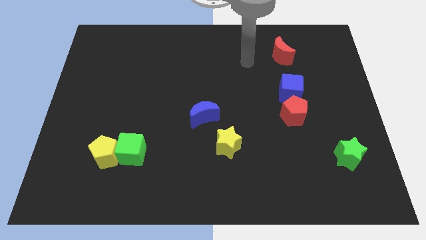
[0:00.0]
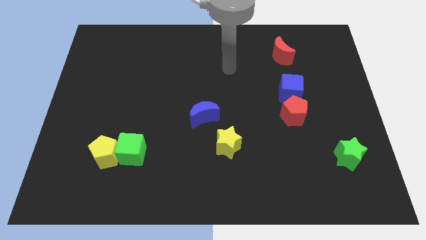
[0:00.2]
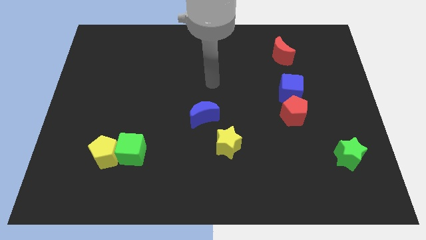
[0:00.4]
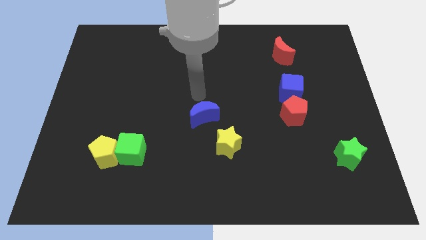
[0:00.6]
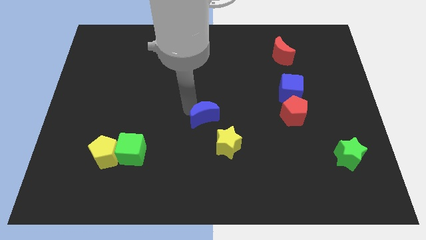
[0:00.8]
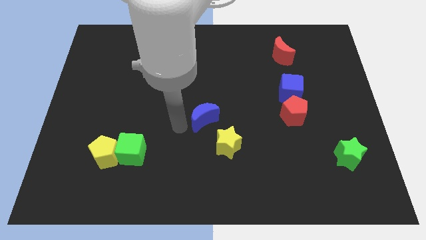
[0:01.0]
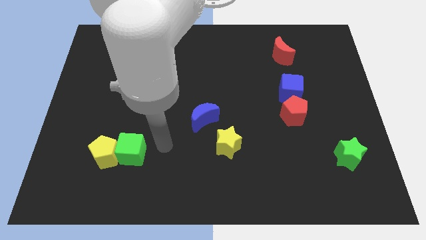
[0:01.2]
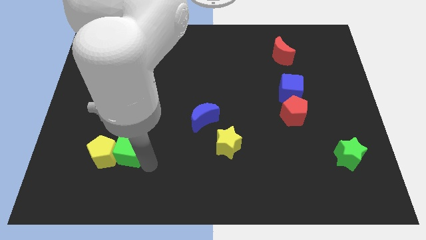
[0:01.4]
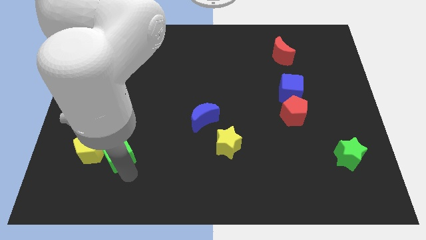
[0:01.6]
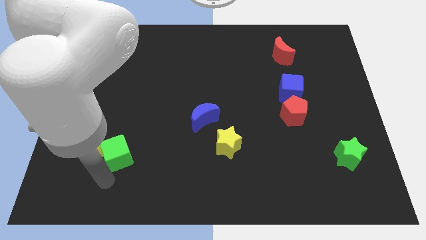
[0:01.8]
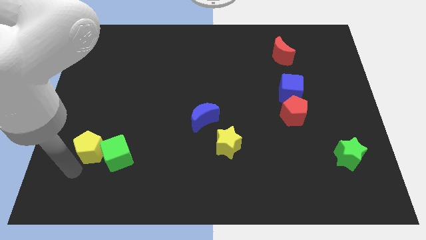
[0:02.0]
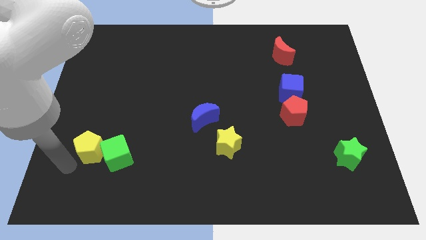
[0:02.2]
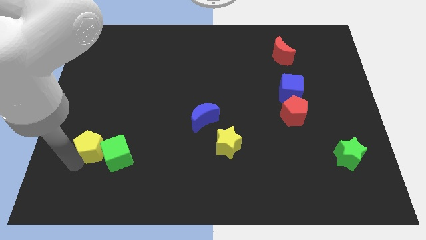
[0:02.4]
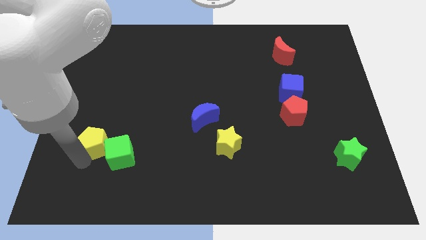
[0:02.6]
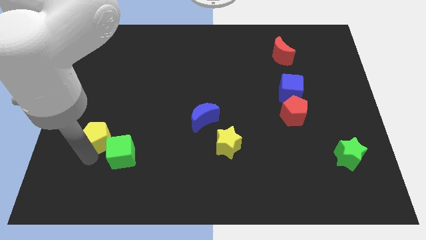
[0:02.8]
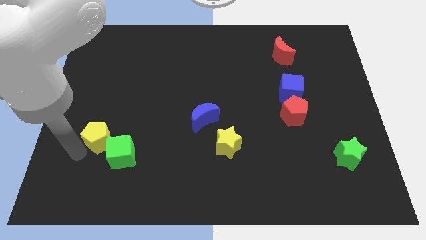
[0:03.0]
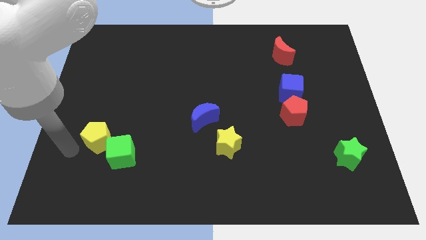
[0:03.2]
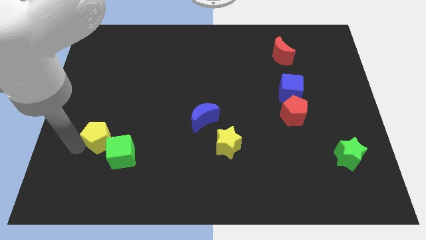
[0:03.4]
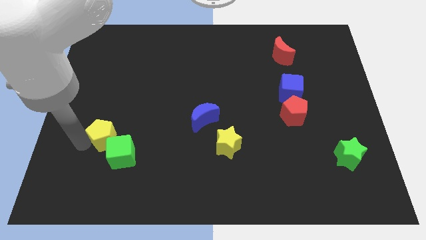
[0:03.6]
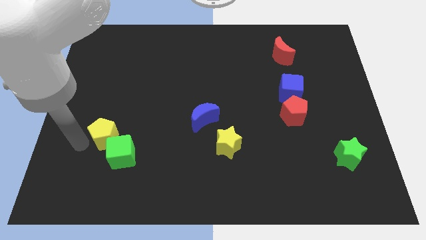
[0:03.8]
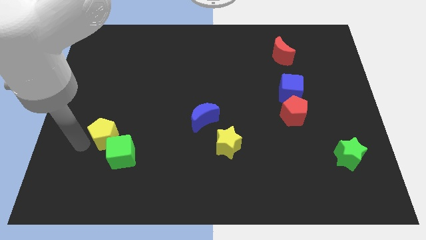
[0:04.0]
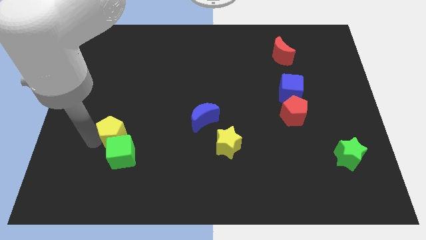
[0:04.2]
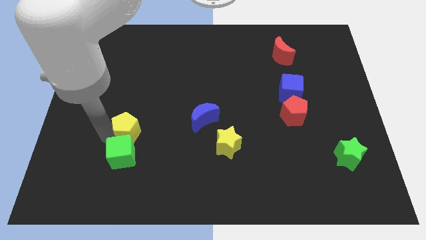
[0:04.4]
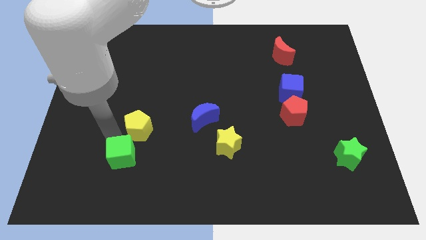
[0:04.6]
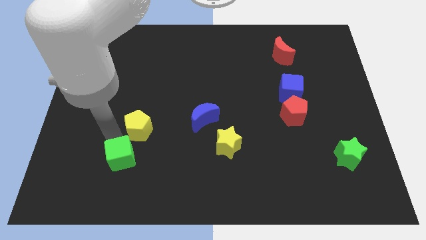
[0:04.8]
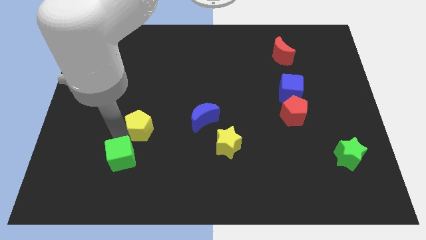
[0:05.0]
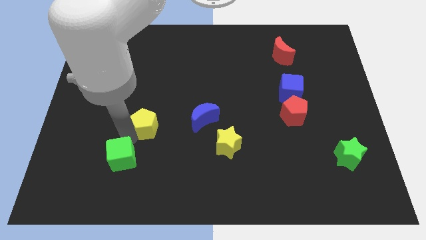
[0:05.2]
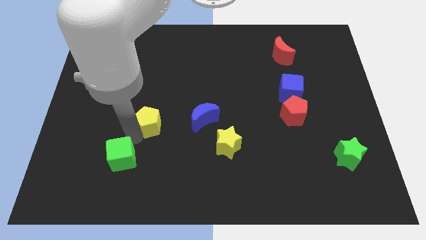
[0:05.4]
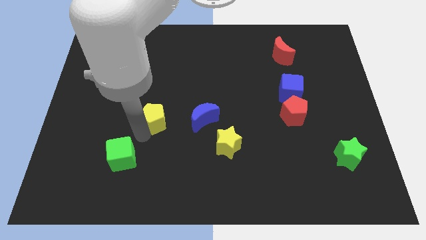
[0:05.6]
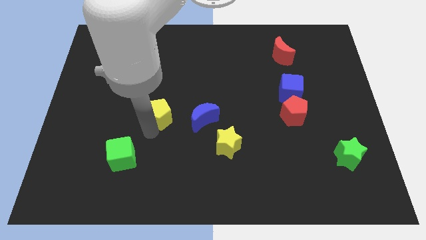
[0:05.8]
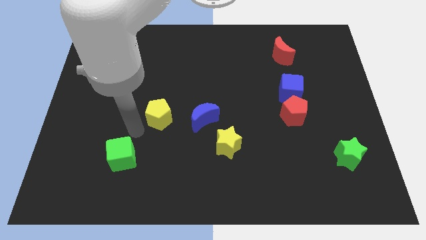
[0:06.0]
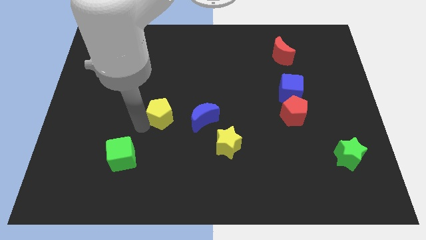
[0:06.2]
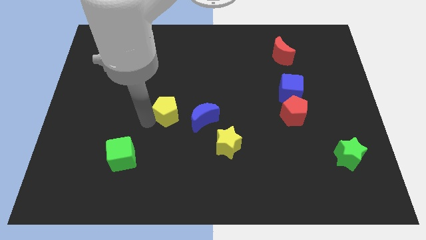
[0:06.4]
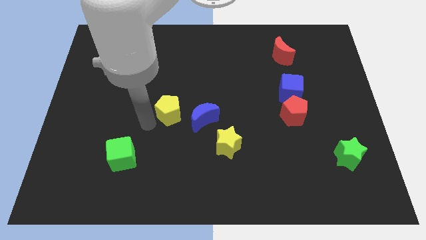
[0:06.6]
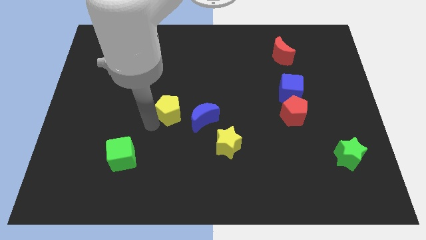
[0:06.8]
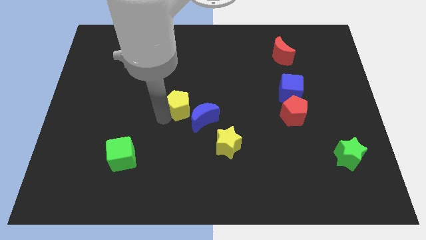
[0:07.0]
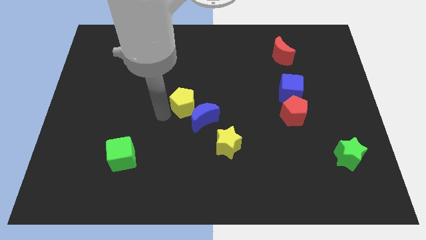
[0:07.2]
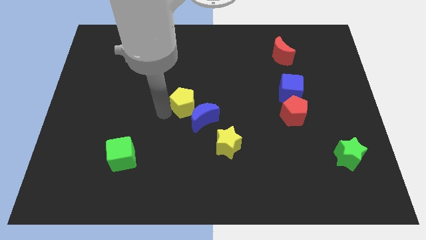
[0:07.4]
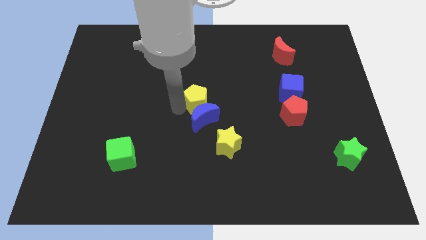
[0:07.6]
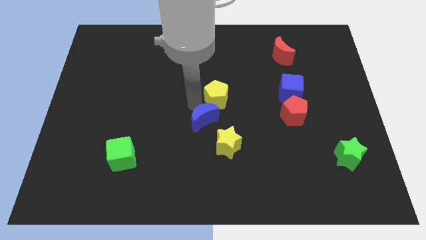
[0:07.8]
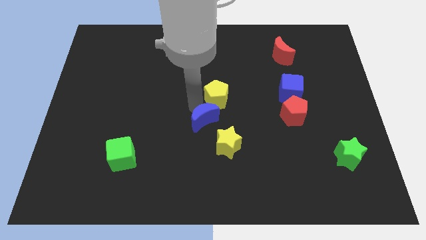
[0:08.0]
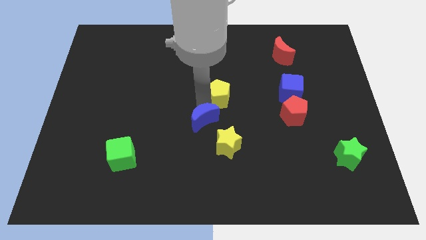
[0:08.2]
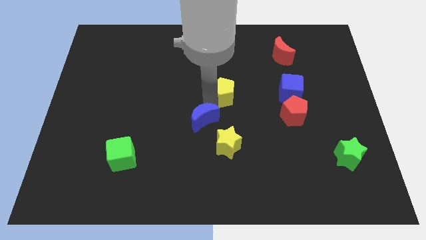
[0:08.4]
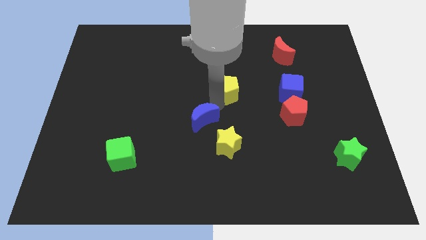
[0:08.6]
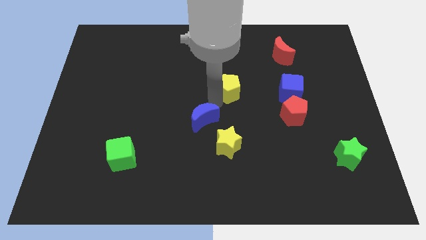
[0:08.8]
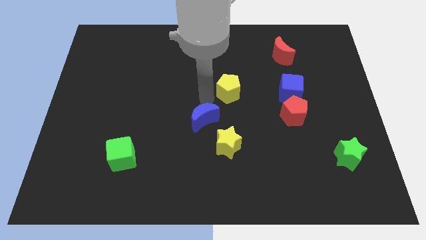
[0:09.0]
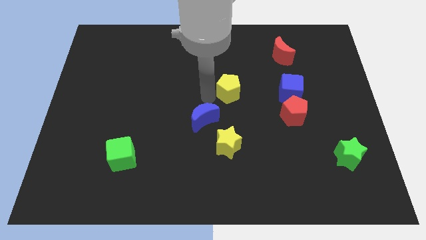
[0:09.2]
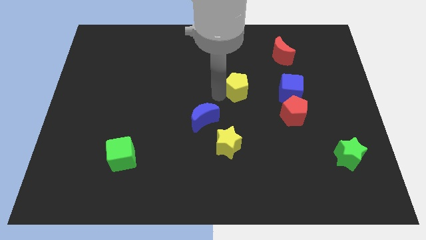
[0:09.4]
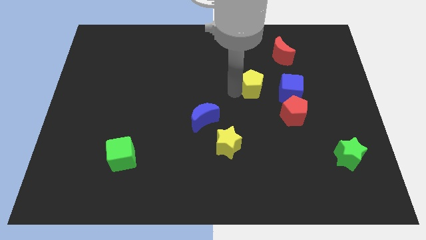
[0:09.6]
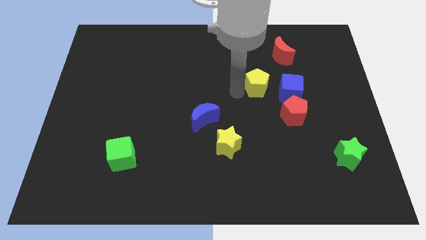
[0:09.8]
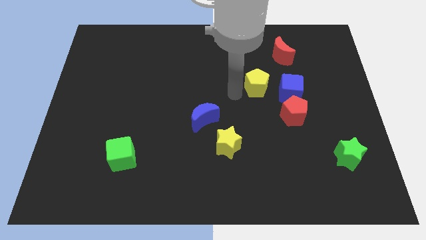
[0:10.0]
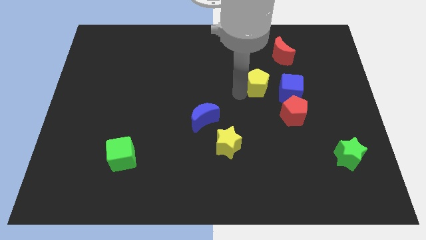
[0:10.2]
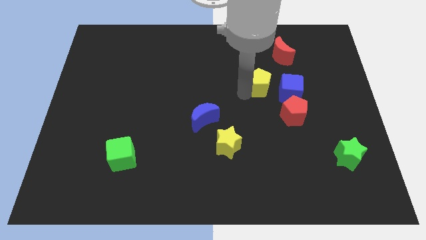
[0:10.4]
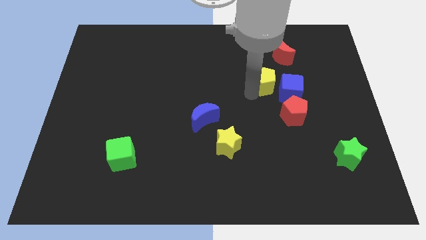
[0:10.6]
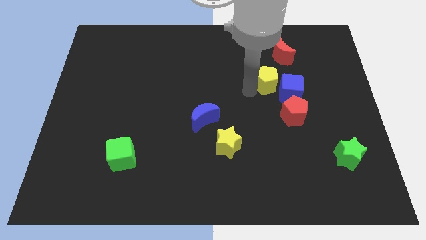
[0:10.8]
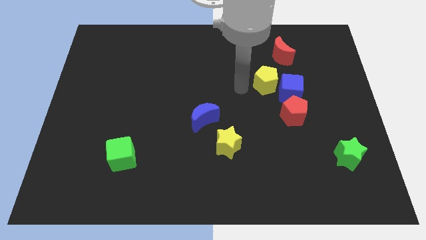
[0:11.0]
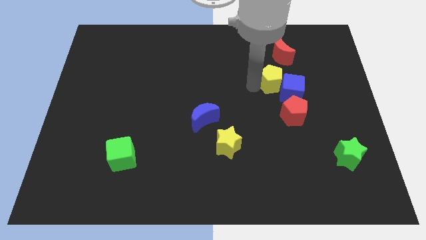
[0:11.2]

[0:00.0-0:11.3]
put the yellow pentagon to the top side of the red pentagon

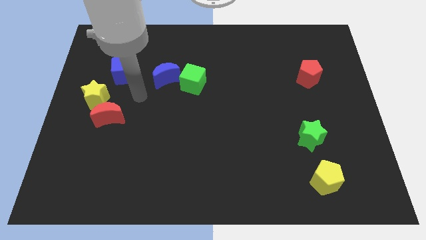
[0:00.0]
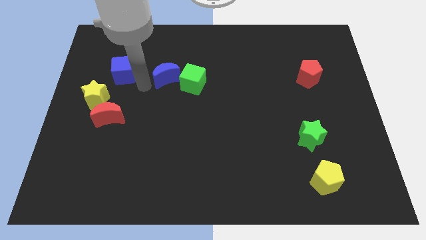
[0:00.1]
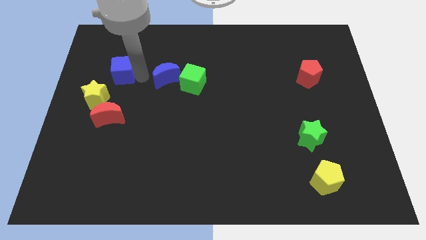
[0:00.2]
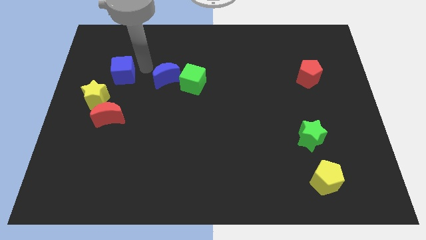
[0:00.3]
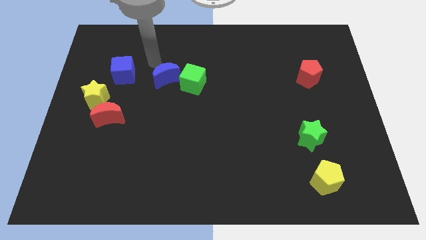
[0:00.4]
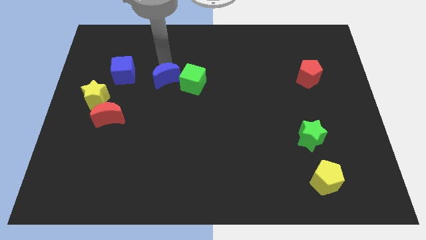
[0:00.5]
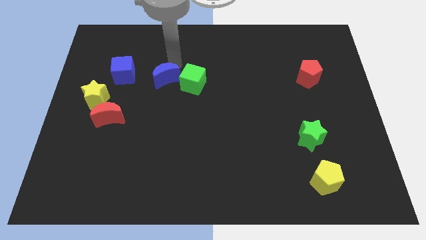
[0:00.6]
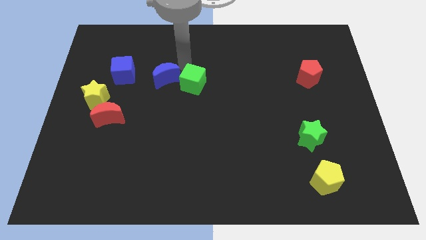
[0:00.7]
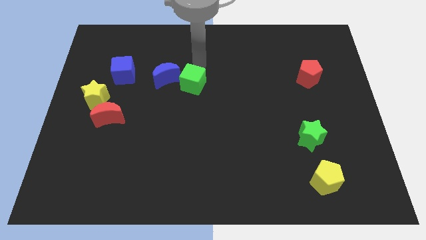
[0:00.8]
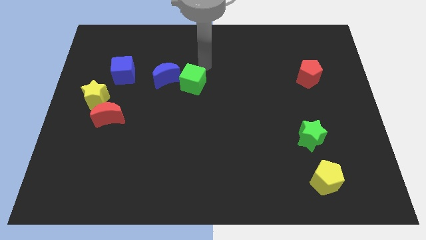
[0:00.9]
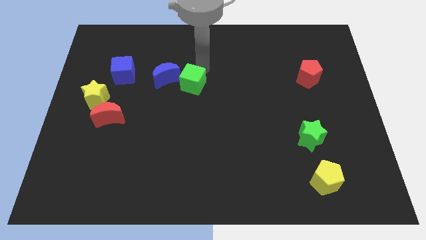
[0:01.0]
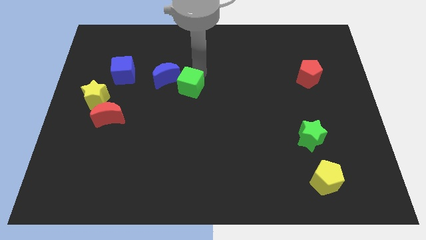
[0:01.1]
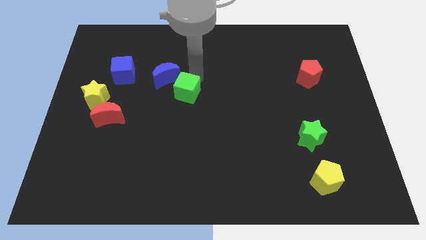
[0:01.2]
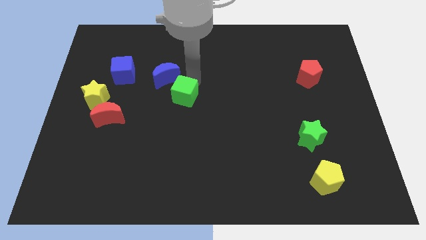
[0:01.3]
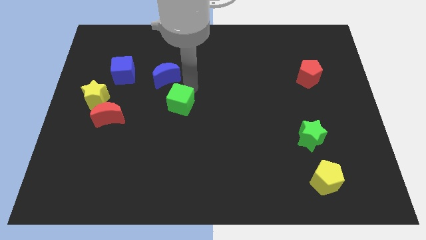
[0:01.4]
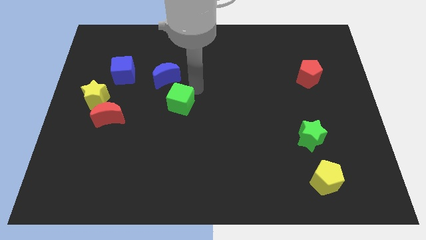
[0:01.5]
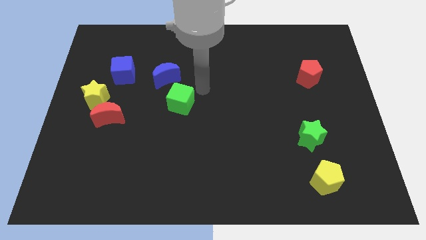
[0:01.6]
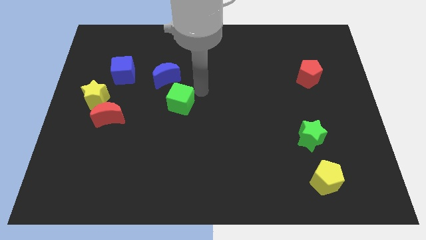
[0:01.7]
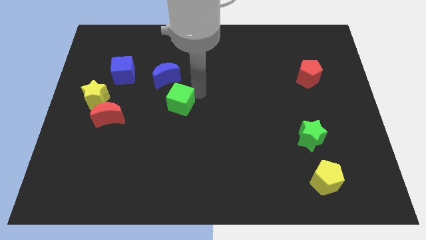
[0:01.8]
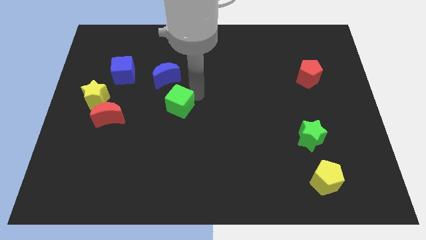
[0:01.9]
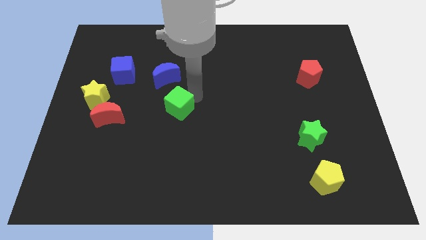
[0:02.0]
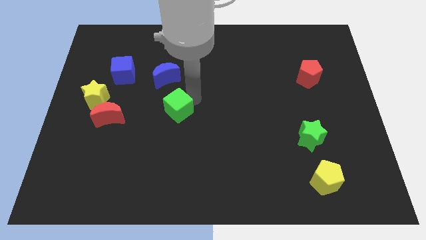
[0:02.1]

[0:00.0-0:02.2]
move the green cube right of the red moon
